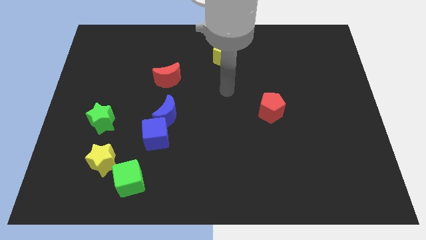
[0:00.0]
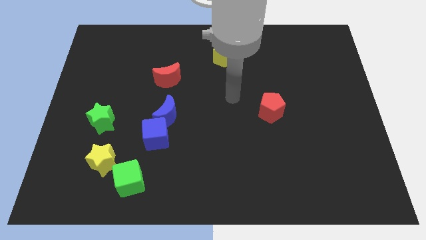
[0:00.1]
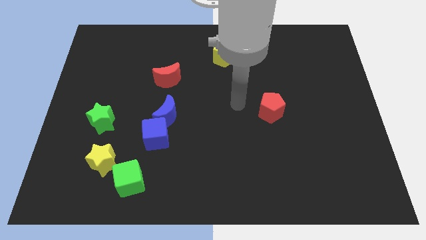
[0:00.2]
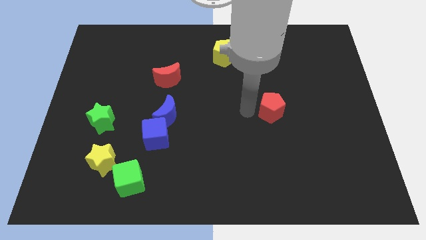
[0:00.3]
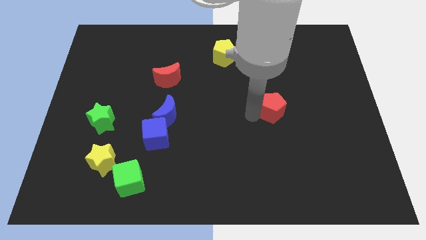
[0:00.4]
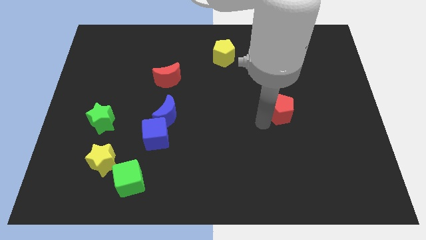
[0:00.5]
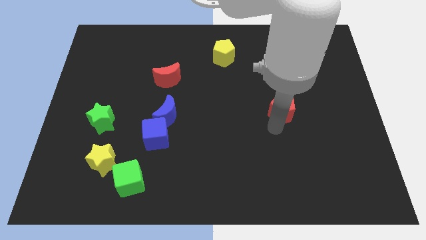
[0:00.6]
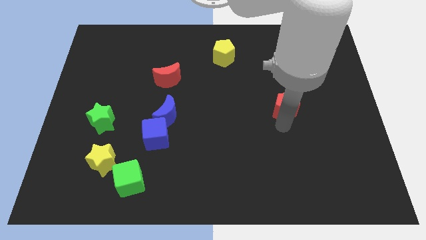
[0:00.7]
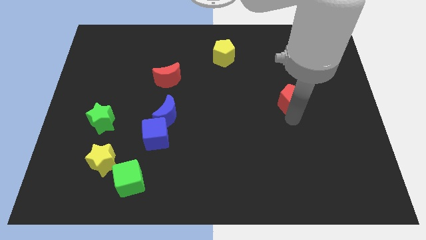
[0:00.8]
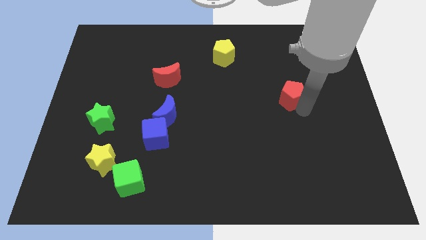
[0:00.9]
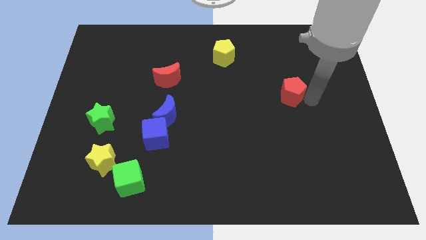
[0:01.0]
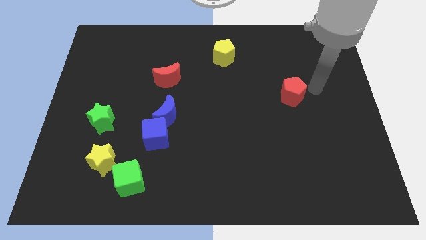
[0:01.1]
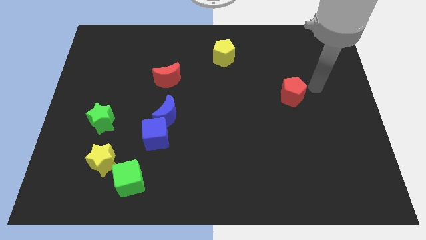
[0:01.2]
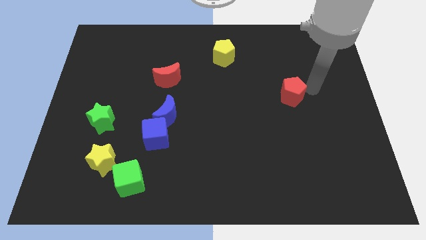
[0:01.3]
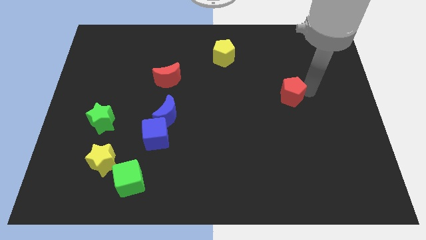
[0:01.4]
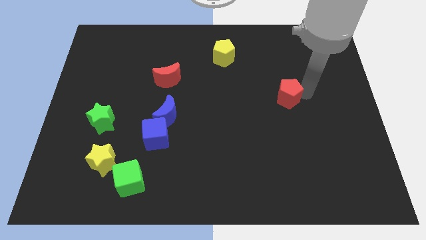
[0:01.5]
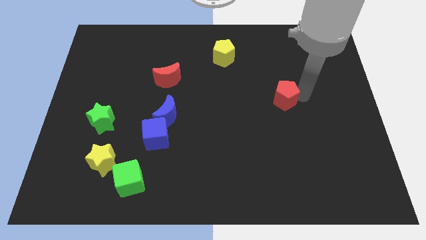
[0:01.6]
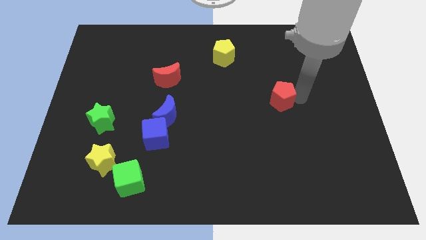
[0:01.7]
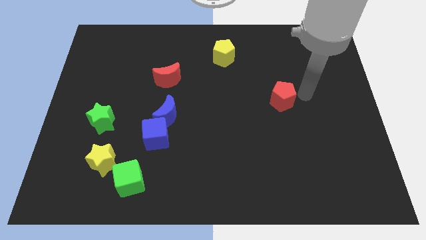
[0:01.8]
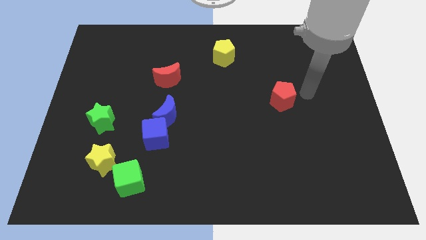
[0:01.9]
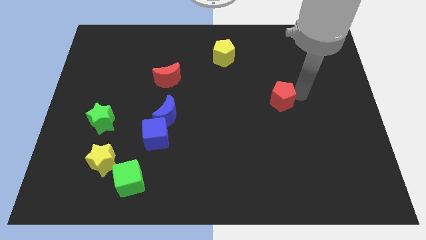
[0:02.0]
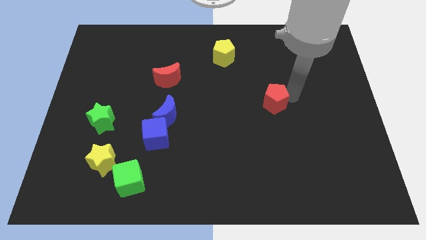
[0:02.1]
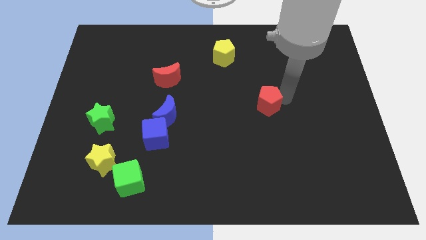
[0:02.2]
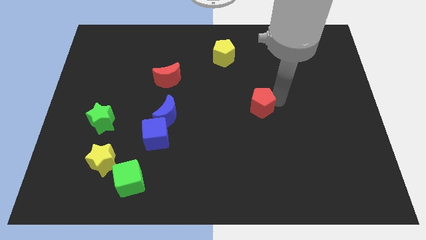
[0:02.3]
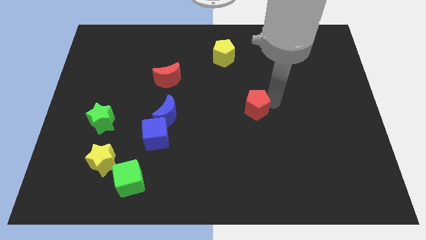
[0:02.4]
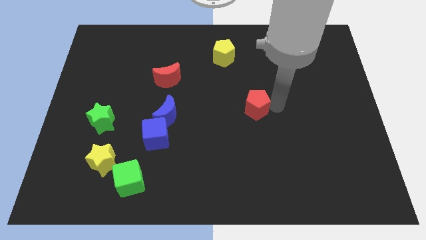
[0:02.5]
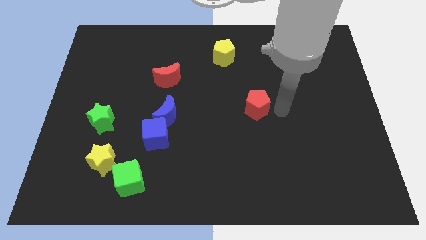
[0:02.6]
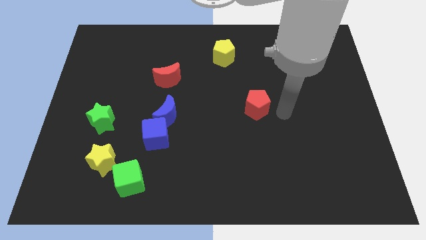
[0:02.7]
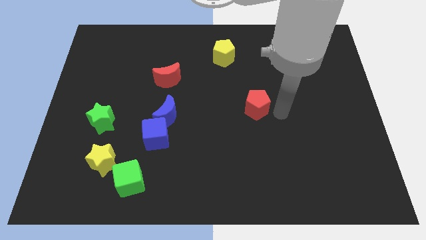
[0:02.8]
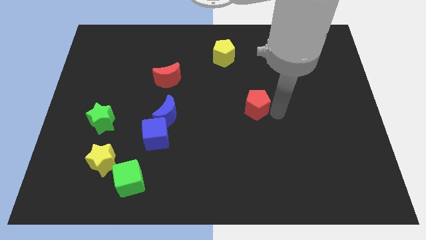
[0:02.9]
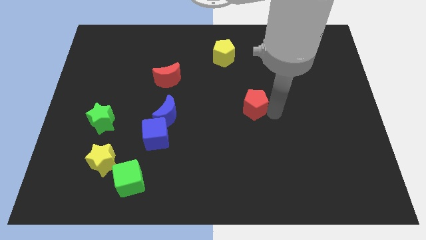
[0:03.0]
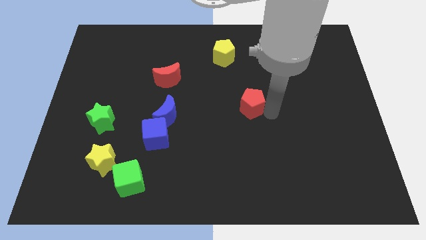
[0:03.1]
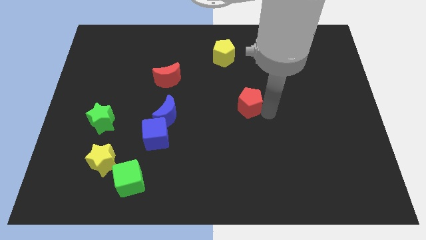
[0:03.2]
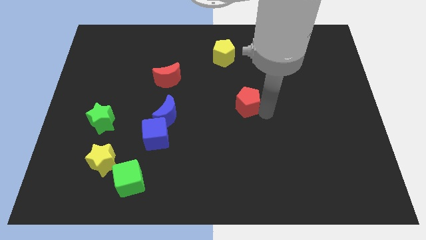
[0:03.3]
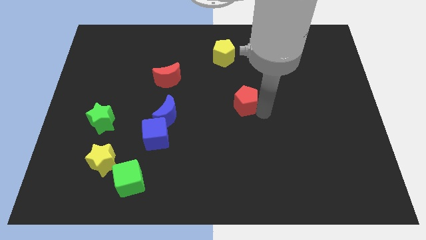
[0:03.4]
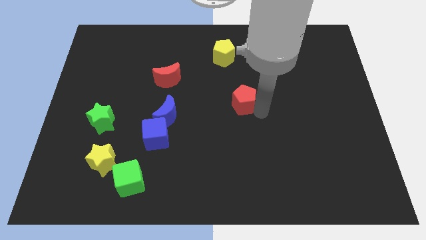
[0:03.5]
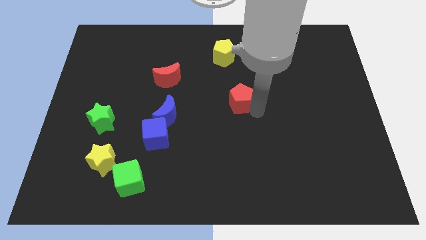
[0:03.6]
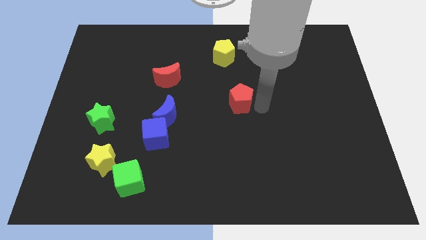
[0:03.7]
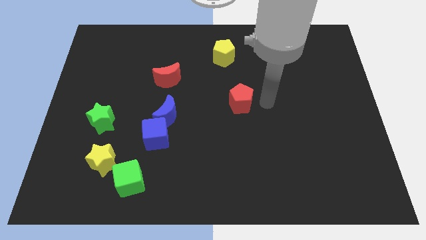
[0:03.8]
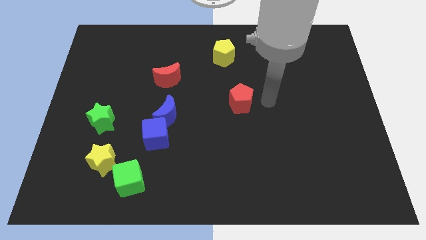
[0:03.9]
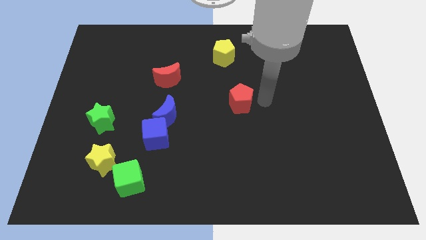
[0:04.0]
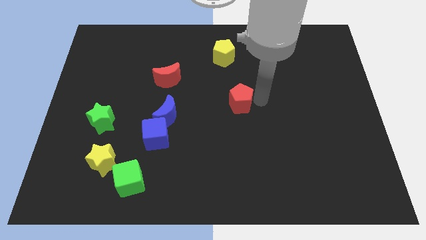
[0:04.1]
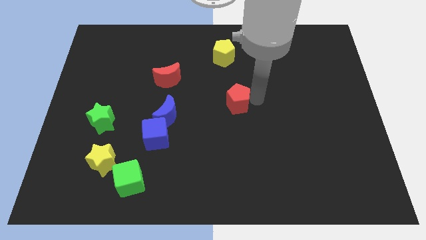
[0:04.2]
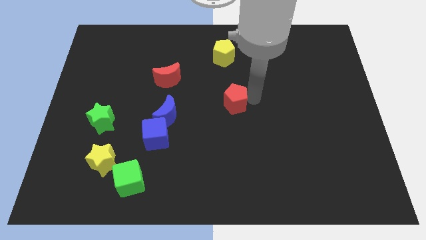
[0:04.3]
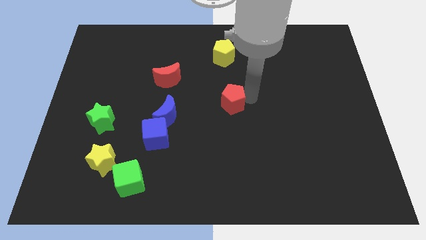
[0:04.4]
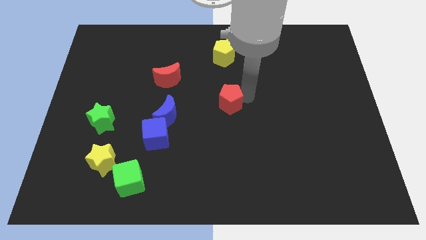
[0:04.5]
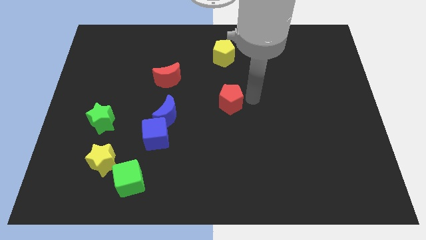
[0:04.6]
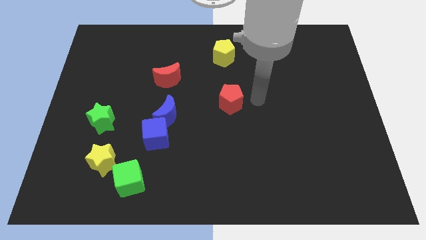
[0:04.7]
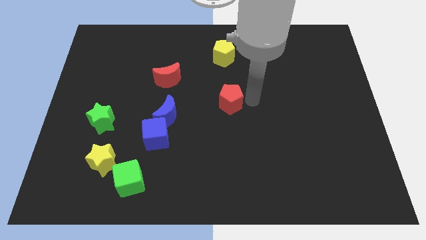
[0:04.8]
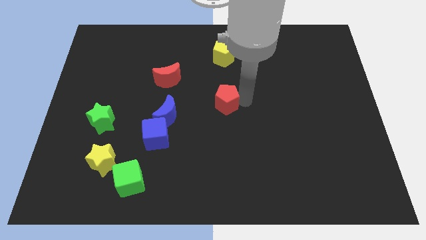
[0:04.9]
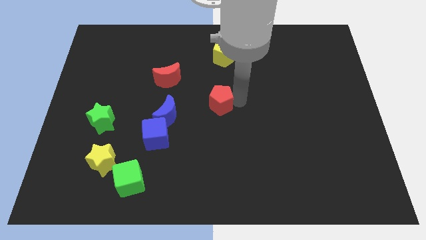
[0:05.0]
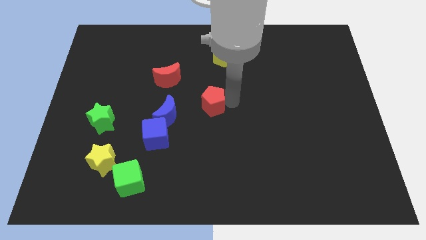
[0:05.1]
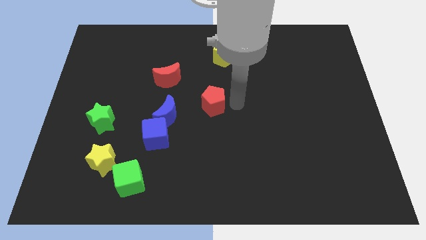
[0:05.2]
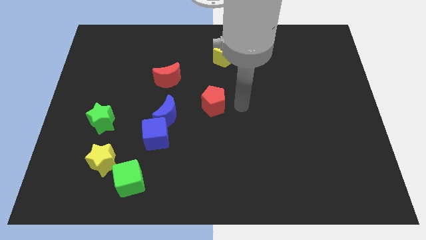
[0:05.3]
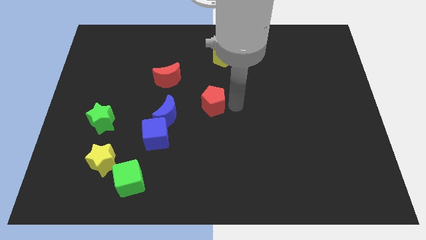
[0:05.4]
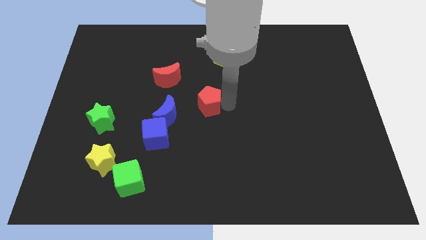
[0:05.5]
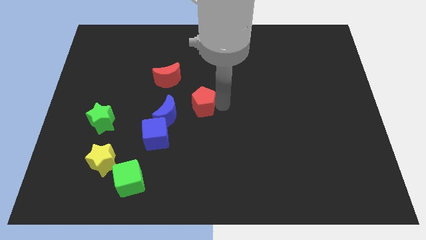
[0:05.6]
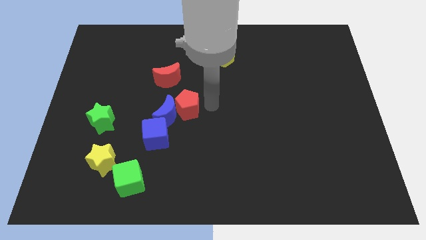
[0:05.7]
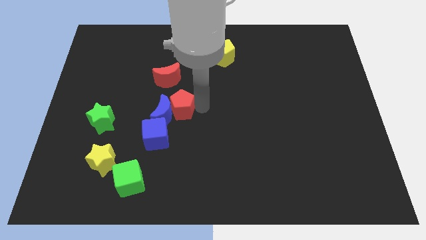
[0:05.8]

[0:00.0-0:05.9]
slide the red pentagon to the left

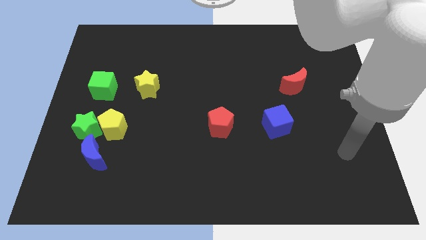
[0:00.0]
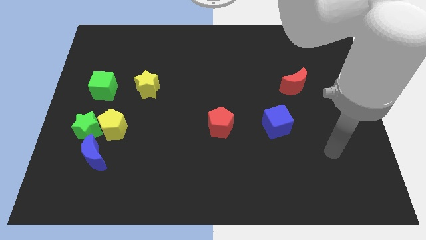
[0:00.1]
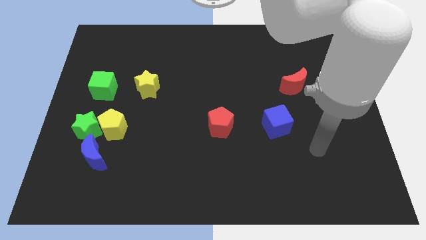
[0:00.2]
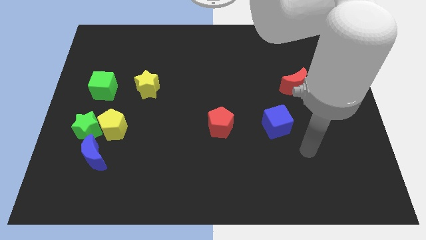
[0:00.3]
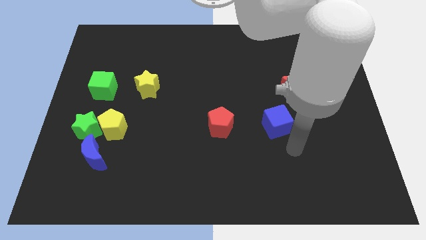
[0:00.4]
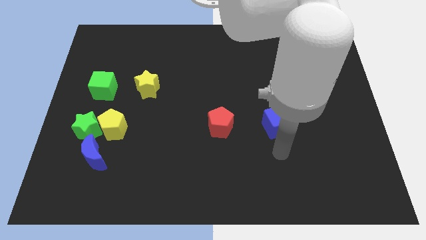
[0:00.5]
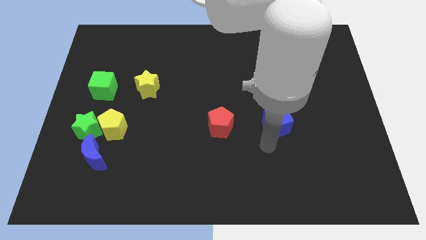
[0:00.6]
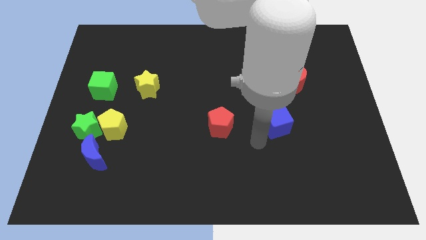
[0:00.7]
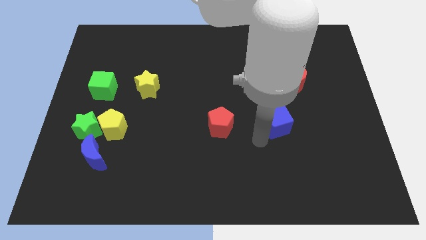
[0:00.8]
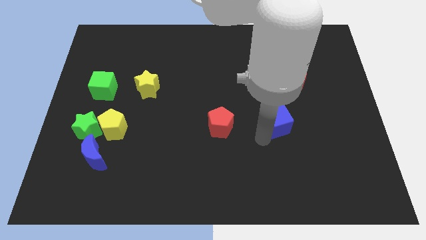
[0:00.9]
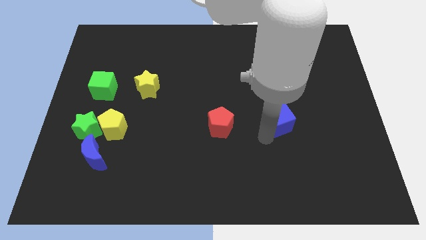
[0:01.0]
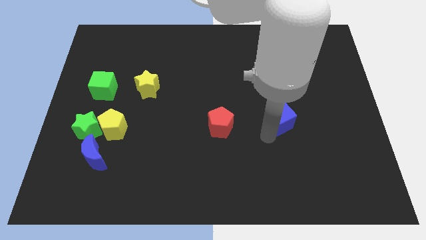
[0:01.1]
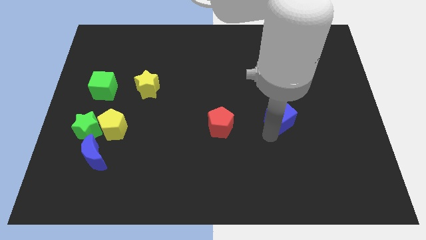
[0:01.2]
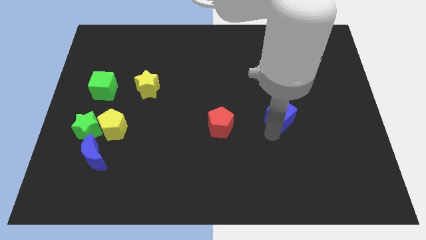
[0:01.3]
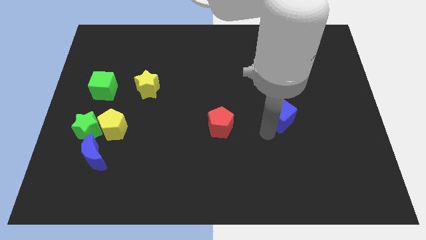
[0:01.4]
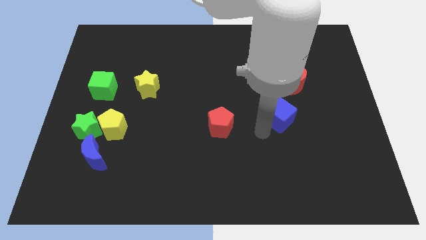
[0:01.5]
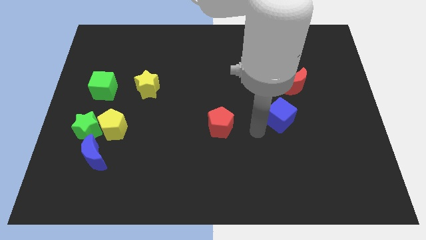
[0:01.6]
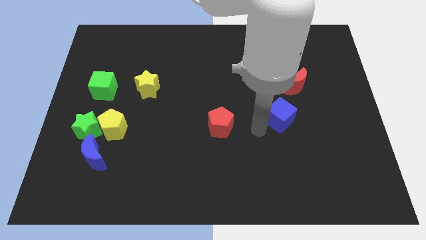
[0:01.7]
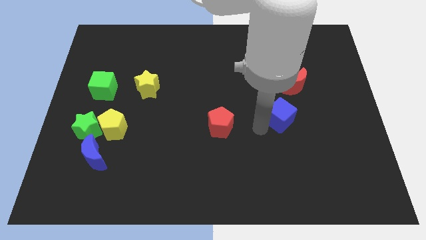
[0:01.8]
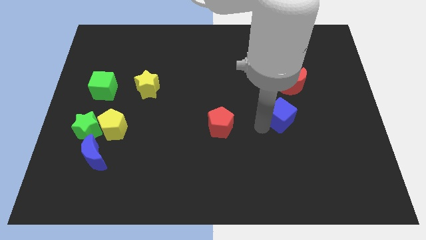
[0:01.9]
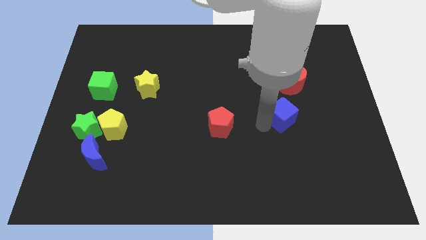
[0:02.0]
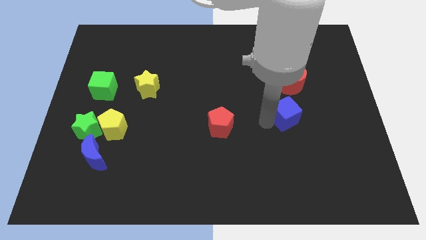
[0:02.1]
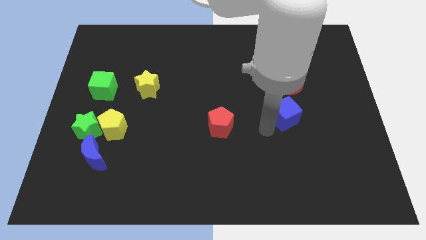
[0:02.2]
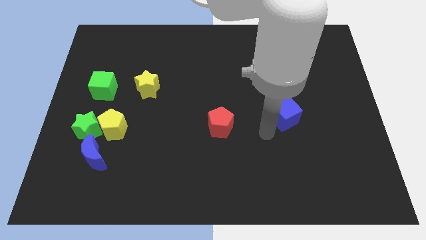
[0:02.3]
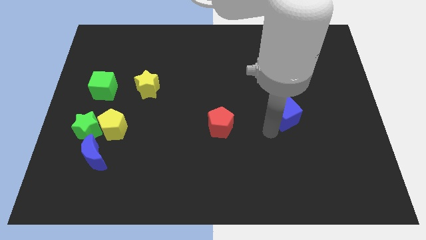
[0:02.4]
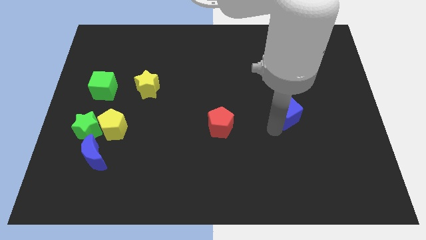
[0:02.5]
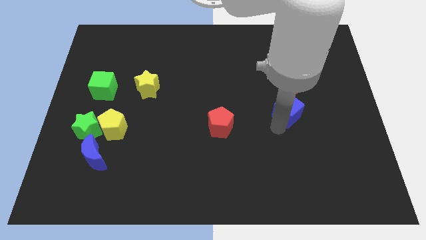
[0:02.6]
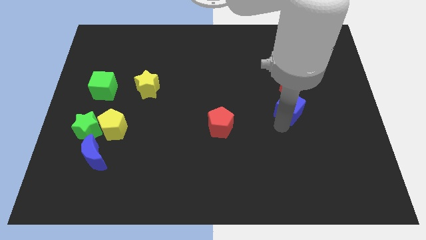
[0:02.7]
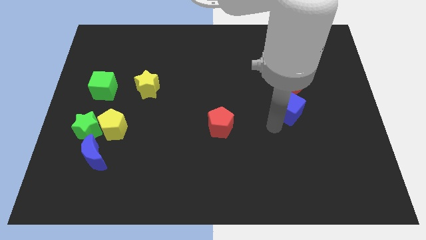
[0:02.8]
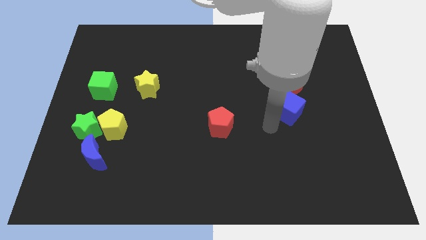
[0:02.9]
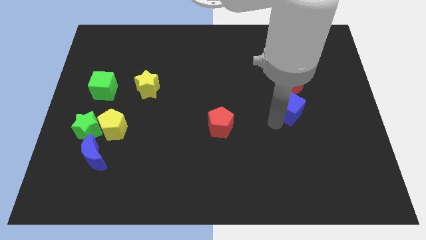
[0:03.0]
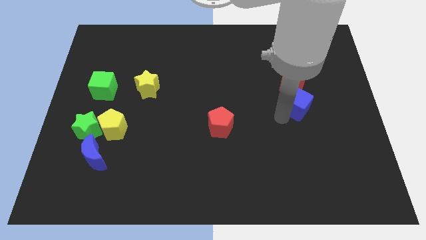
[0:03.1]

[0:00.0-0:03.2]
slide the blue cube a bit upwards and right diagonally
